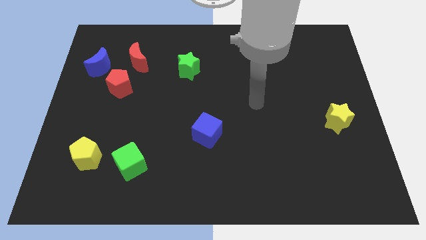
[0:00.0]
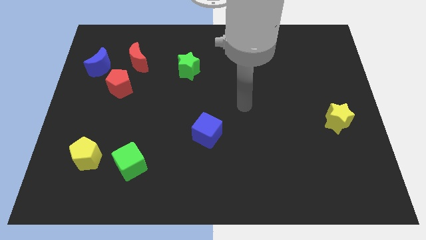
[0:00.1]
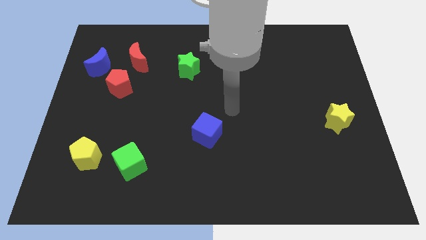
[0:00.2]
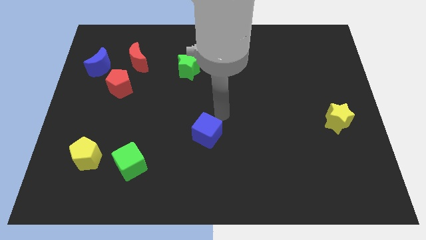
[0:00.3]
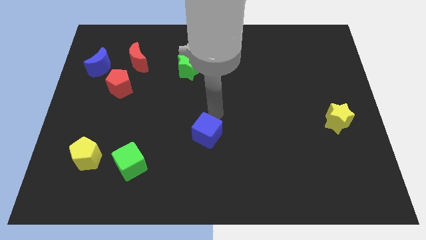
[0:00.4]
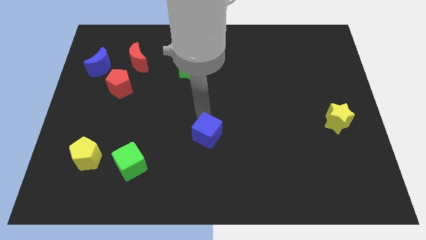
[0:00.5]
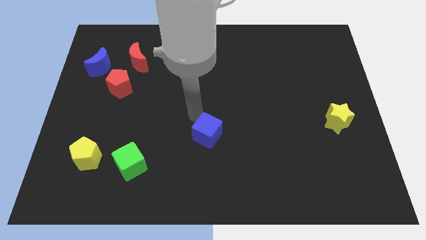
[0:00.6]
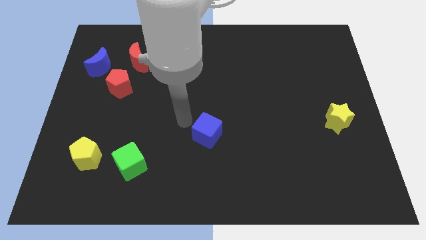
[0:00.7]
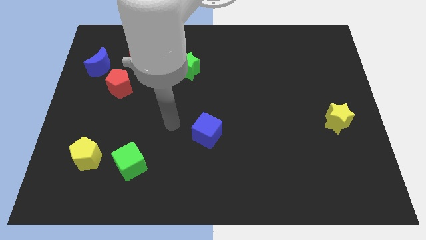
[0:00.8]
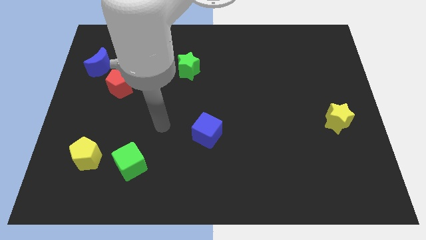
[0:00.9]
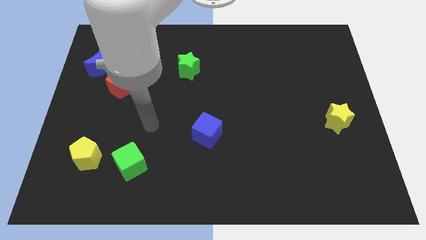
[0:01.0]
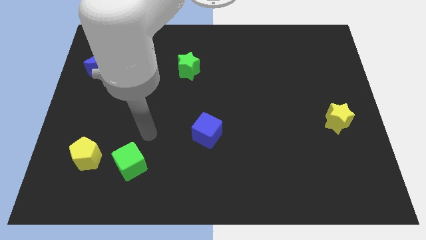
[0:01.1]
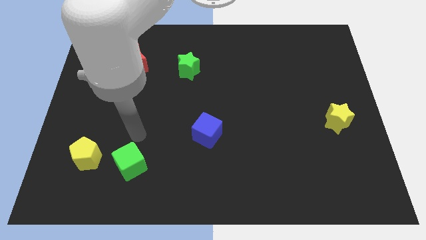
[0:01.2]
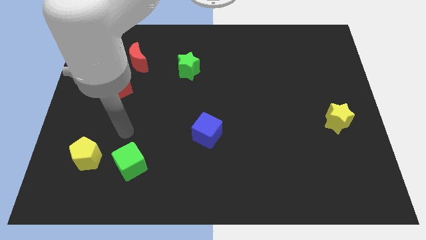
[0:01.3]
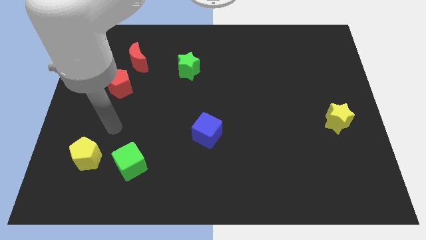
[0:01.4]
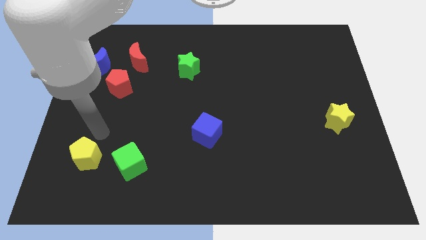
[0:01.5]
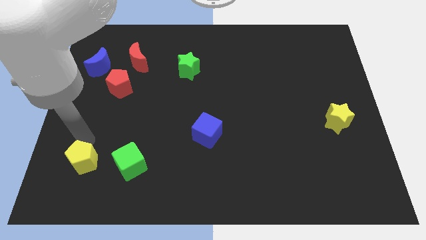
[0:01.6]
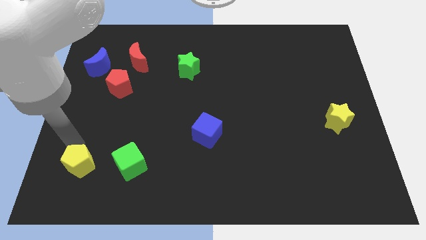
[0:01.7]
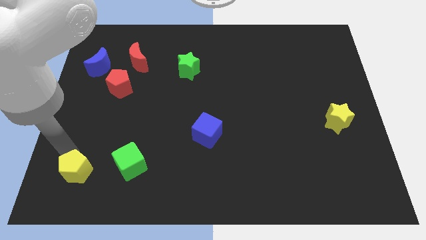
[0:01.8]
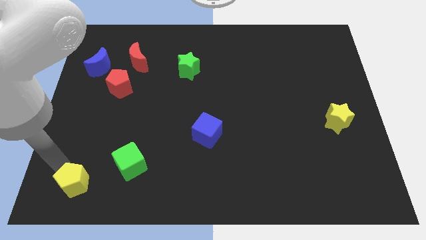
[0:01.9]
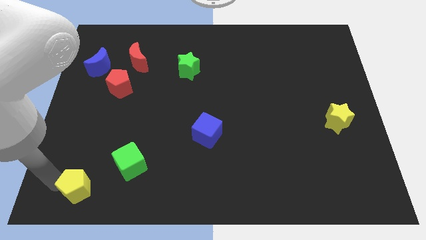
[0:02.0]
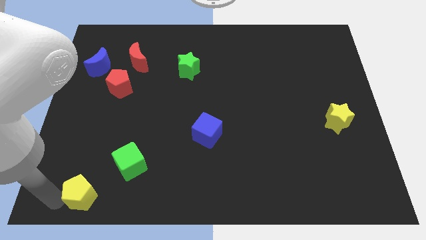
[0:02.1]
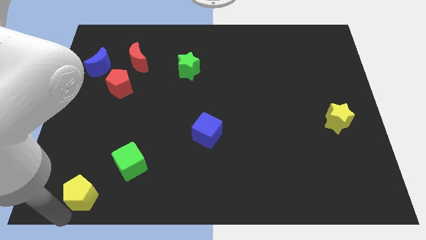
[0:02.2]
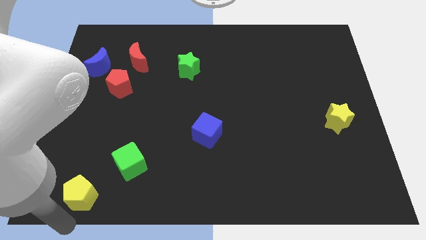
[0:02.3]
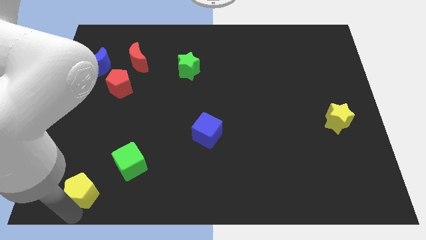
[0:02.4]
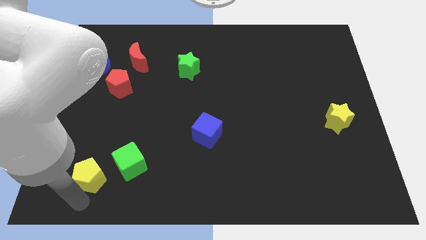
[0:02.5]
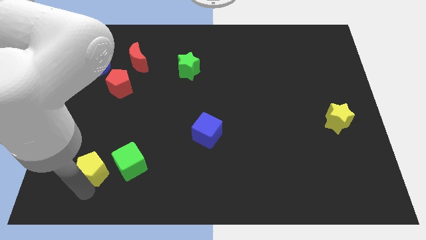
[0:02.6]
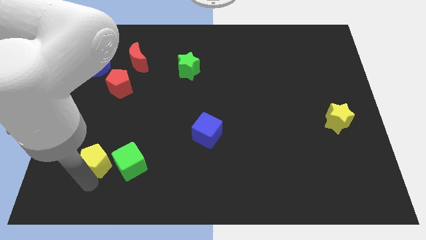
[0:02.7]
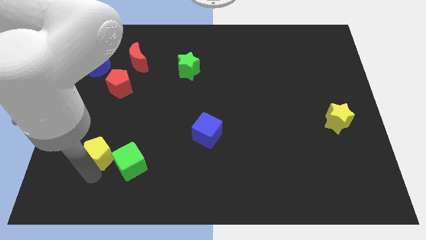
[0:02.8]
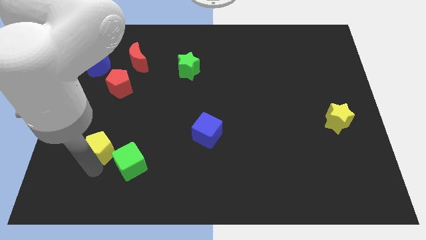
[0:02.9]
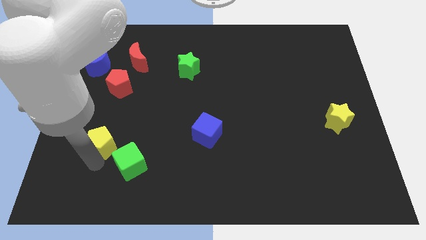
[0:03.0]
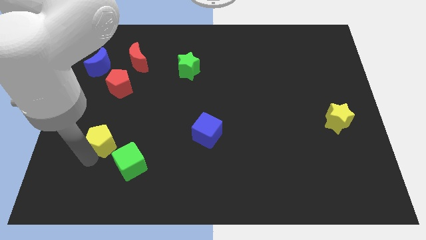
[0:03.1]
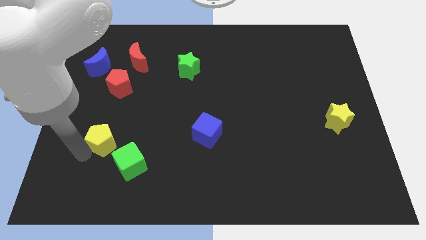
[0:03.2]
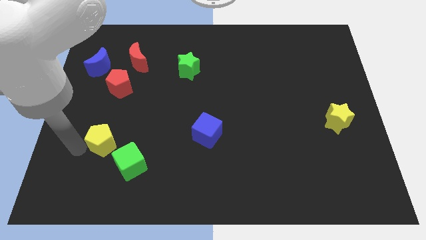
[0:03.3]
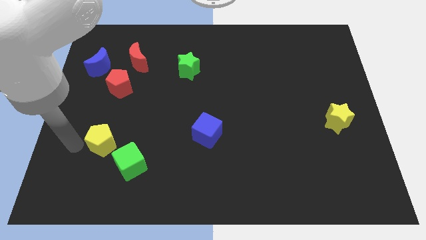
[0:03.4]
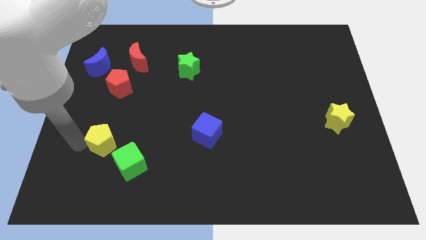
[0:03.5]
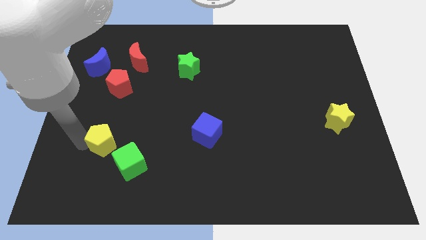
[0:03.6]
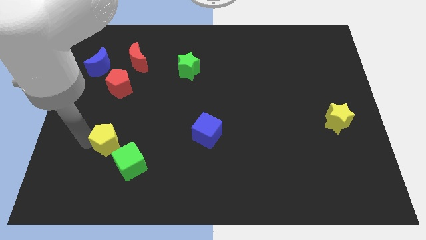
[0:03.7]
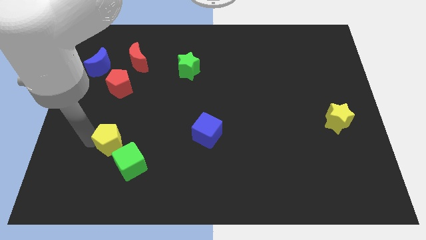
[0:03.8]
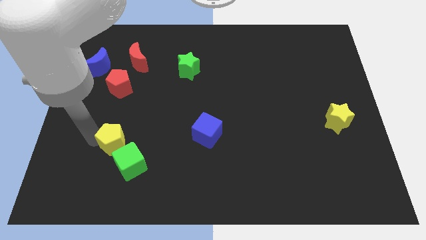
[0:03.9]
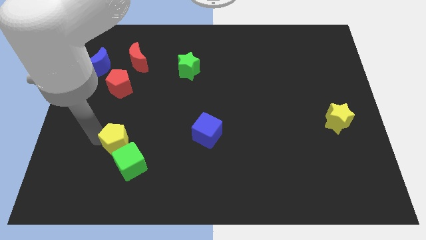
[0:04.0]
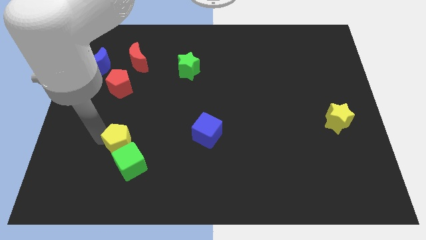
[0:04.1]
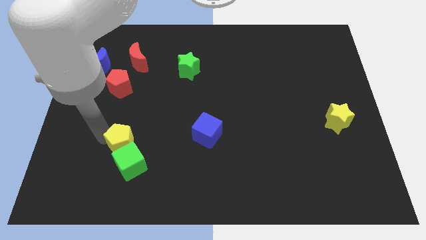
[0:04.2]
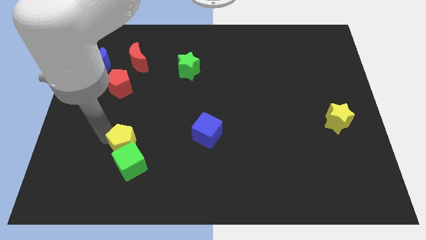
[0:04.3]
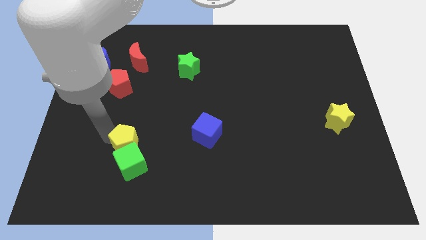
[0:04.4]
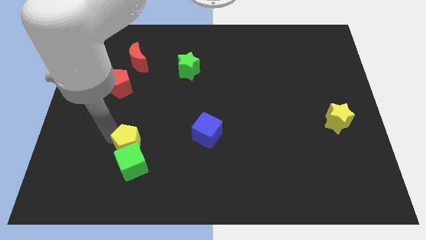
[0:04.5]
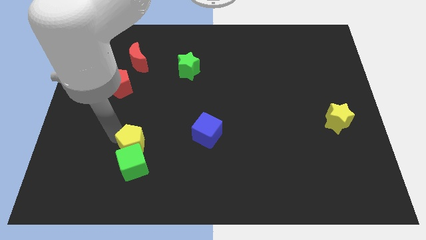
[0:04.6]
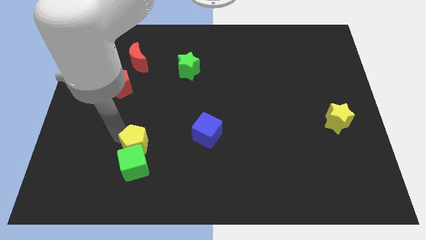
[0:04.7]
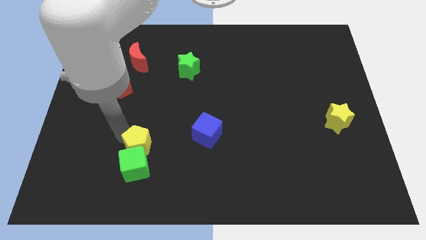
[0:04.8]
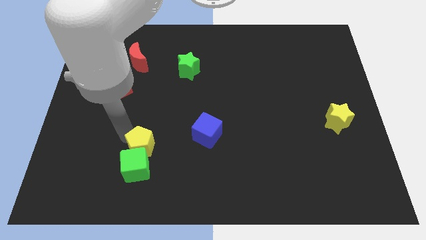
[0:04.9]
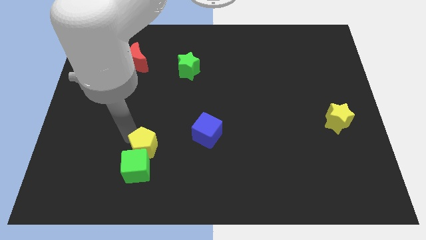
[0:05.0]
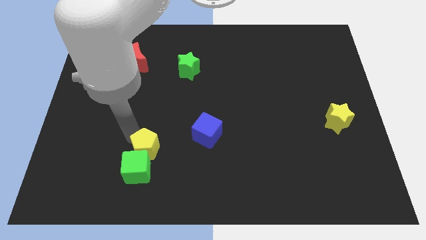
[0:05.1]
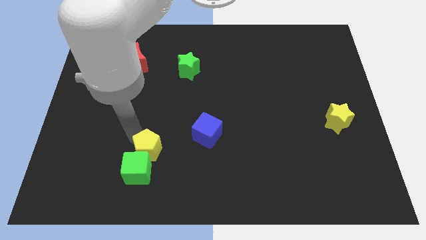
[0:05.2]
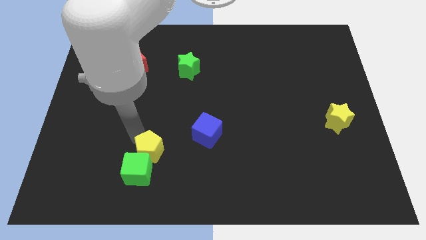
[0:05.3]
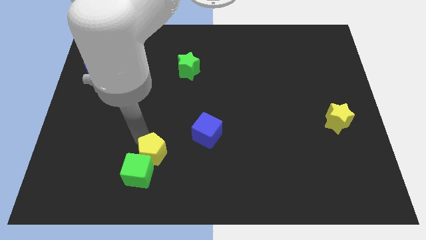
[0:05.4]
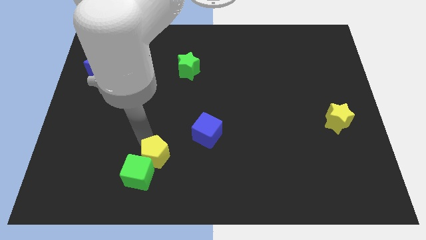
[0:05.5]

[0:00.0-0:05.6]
move the yellow pentagon to the right of the green cube

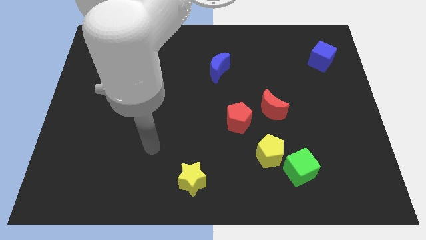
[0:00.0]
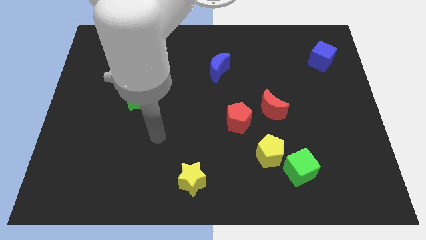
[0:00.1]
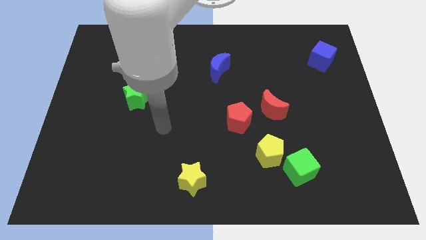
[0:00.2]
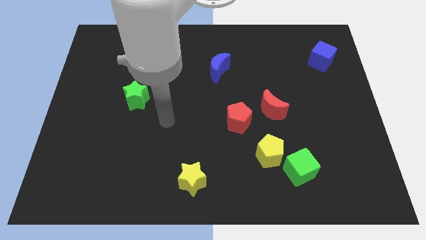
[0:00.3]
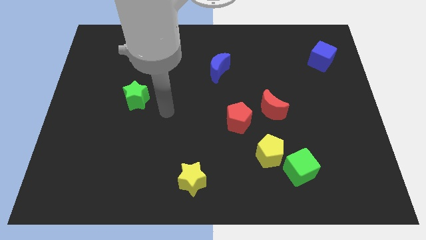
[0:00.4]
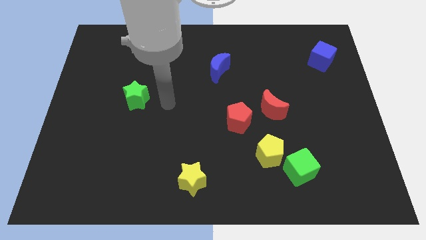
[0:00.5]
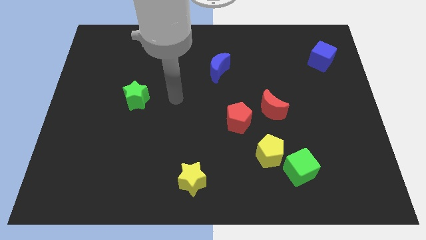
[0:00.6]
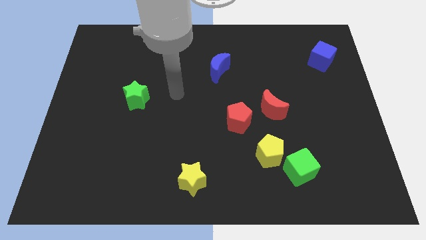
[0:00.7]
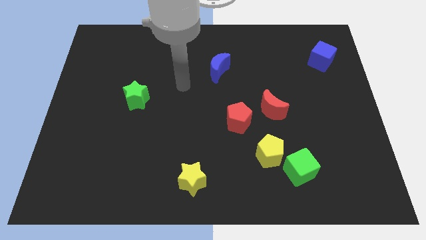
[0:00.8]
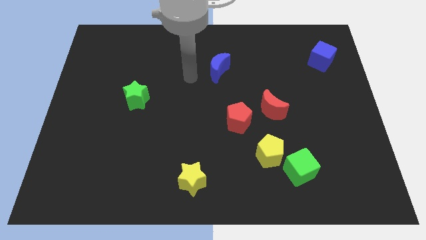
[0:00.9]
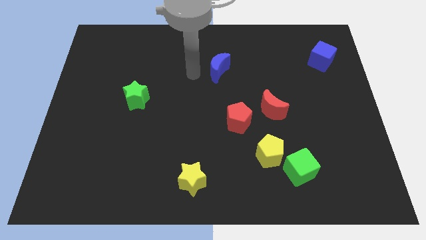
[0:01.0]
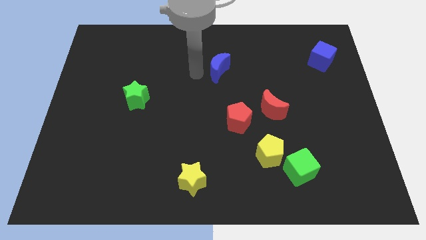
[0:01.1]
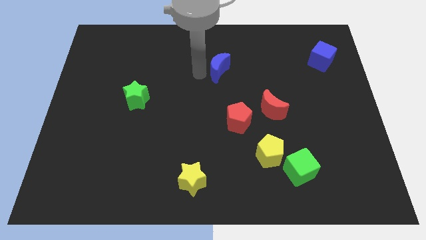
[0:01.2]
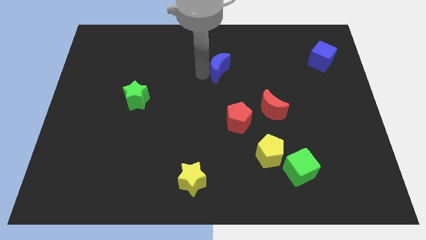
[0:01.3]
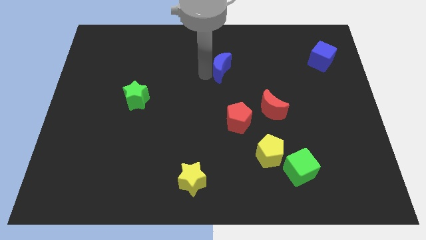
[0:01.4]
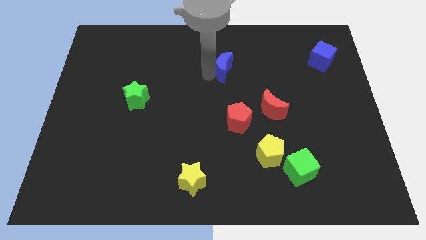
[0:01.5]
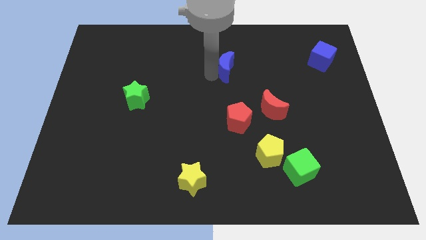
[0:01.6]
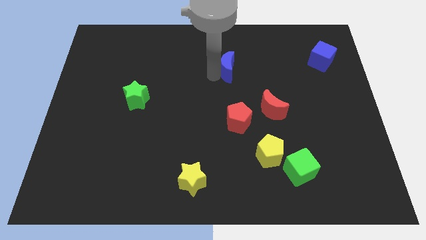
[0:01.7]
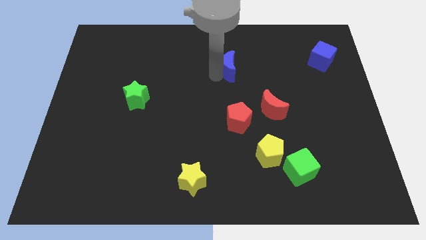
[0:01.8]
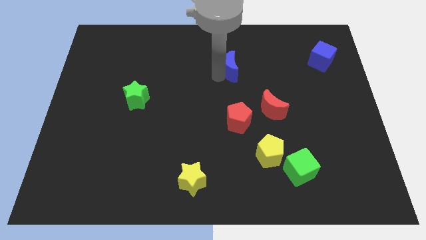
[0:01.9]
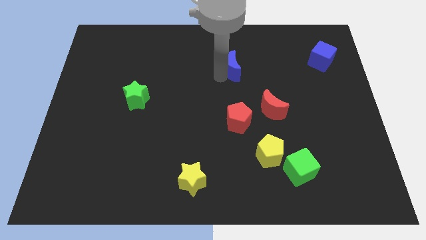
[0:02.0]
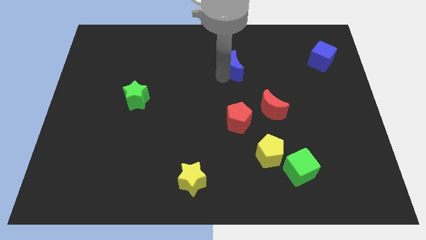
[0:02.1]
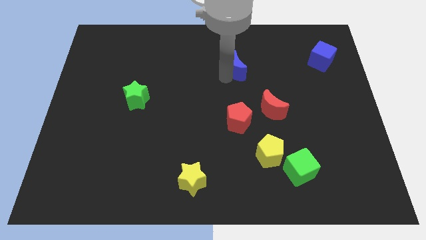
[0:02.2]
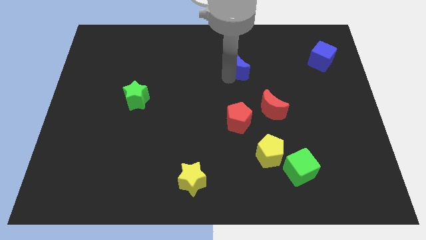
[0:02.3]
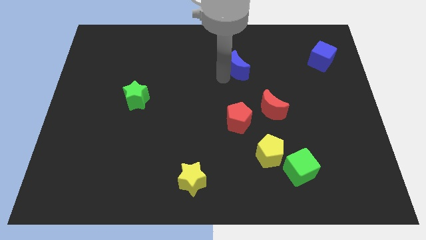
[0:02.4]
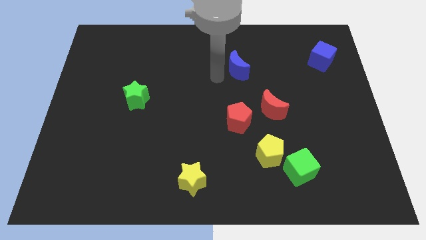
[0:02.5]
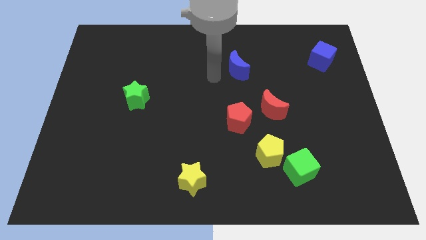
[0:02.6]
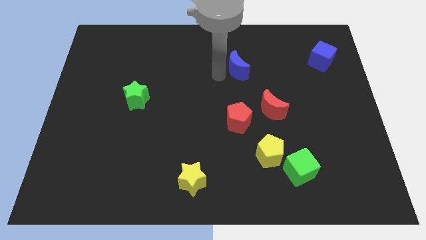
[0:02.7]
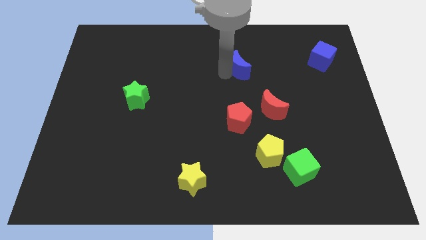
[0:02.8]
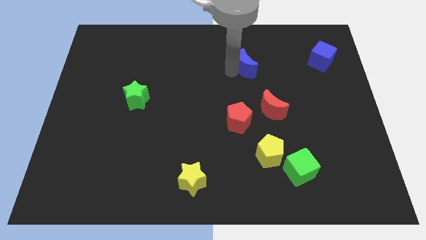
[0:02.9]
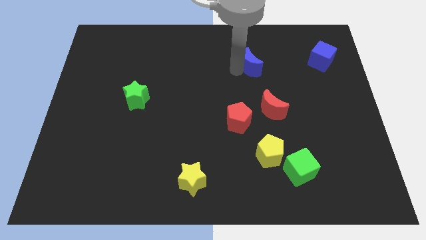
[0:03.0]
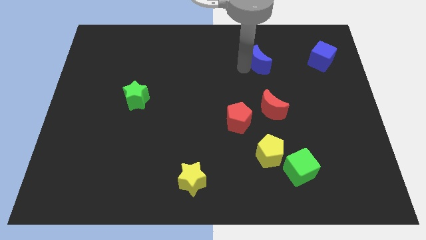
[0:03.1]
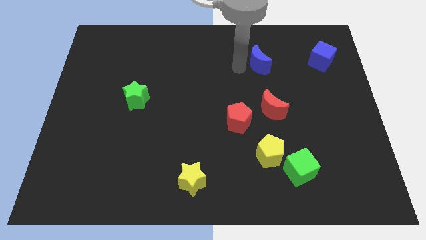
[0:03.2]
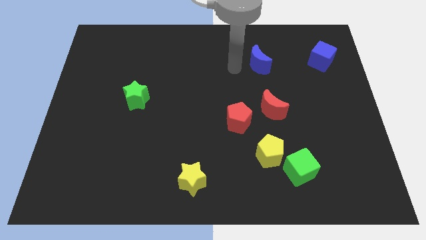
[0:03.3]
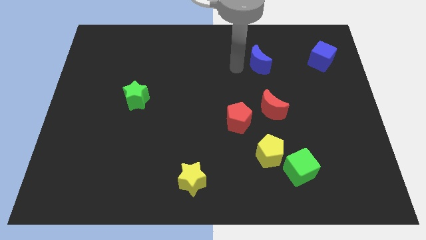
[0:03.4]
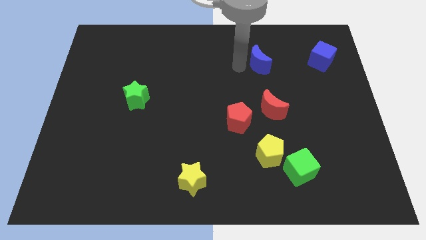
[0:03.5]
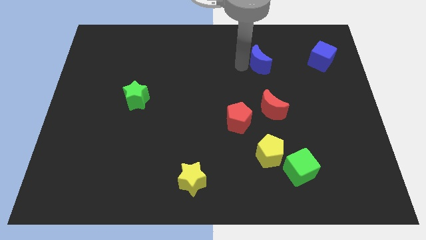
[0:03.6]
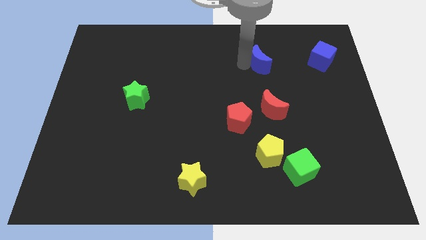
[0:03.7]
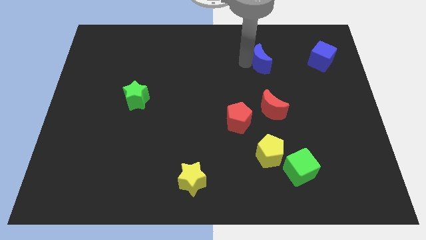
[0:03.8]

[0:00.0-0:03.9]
put the blue moon left of the blue cube
